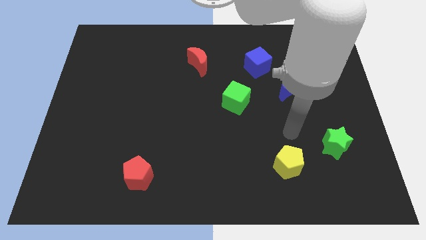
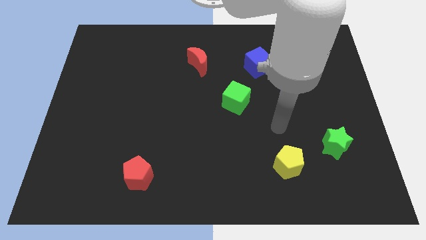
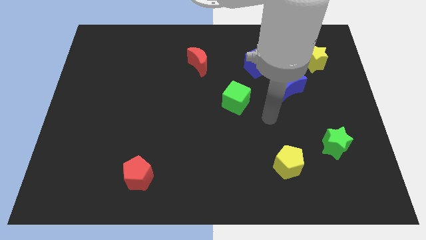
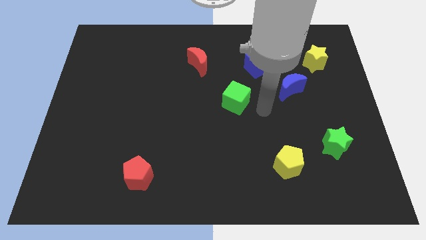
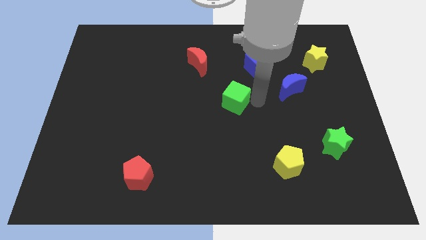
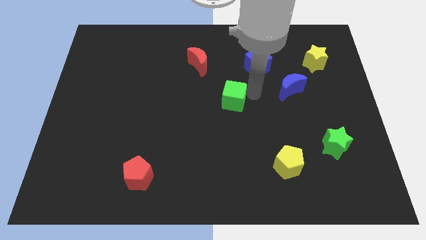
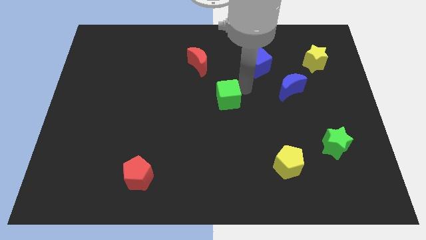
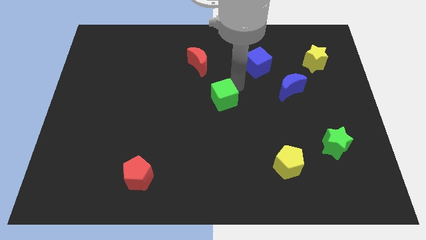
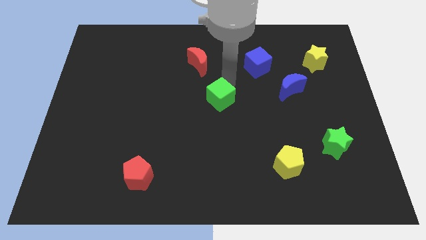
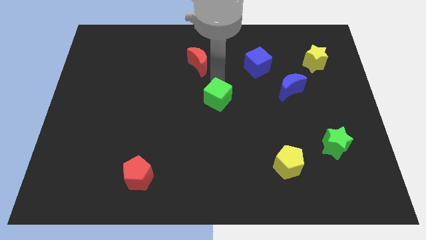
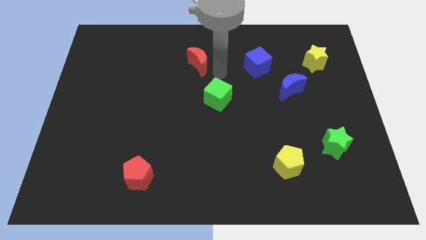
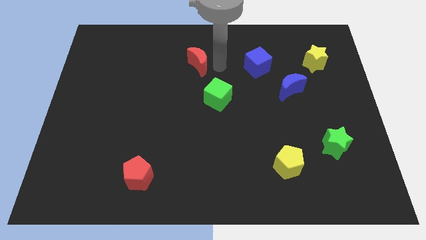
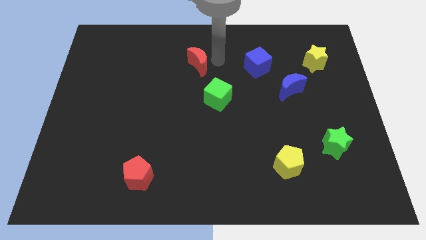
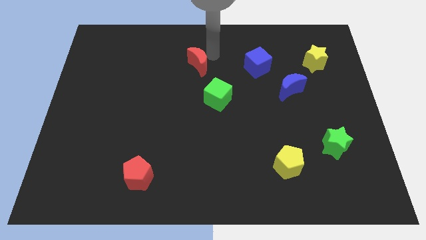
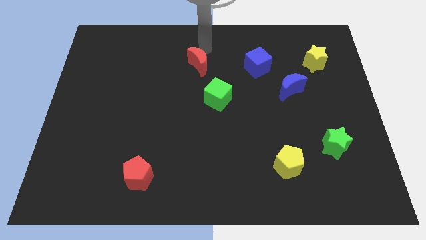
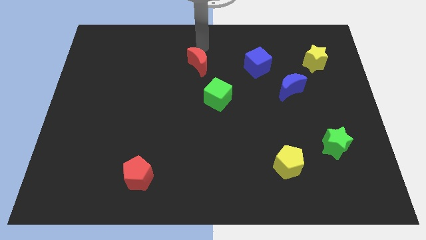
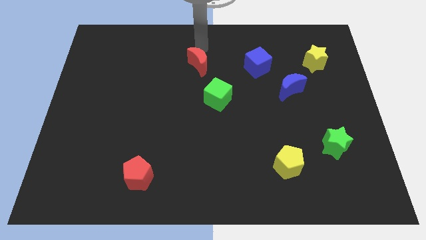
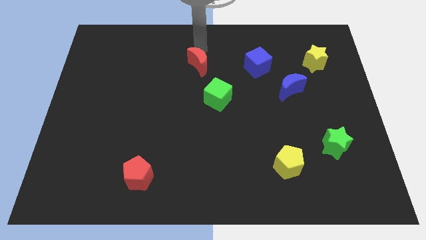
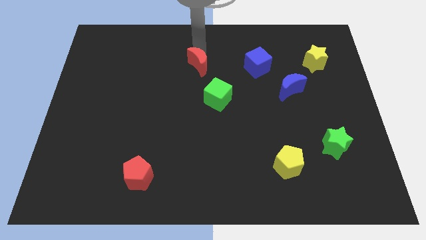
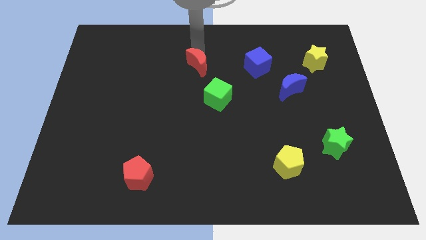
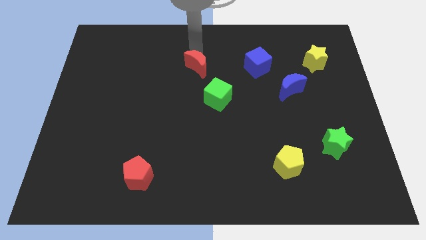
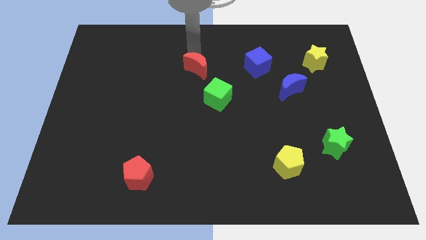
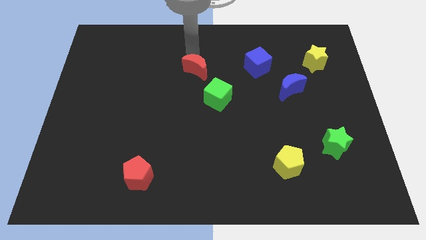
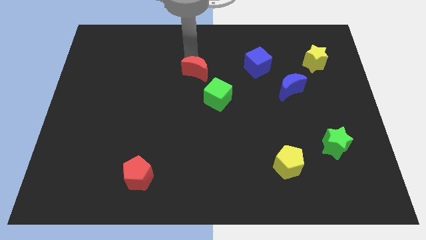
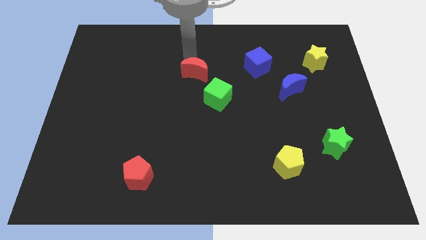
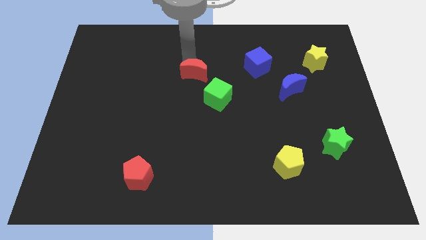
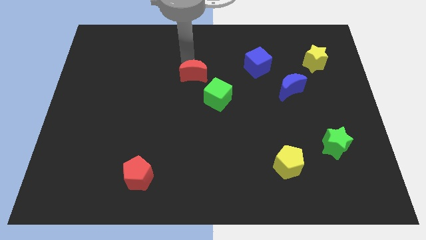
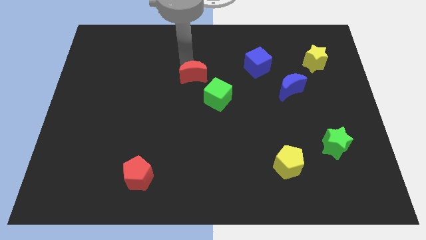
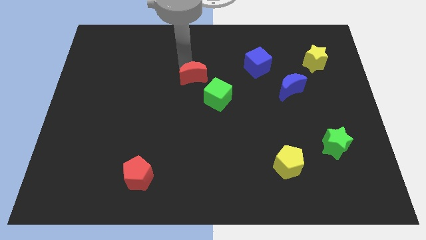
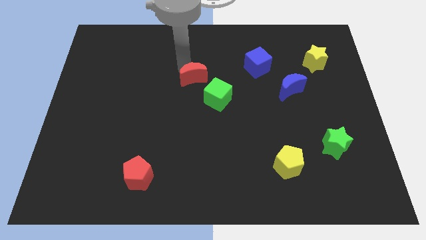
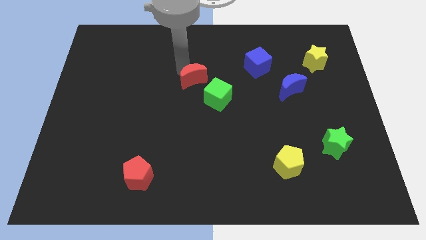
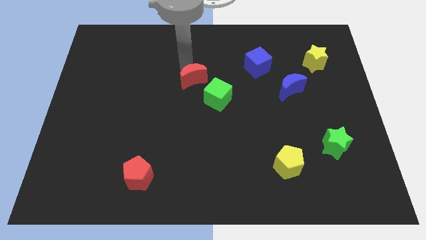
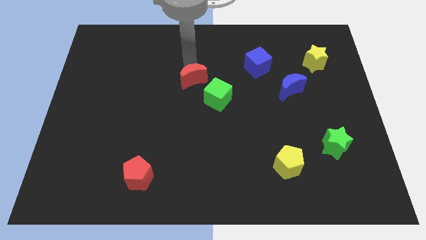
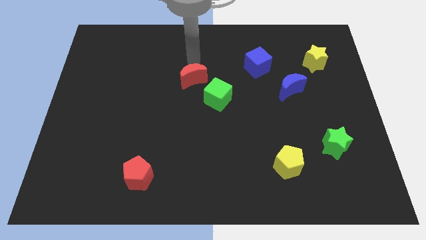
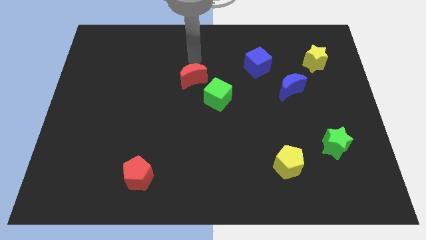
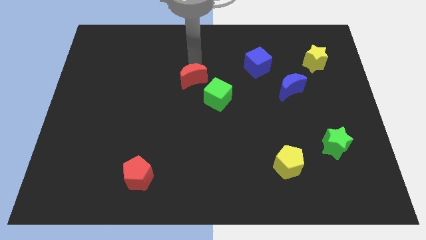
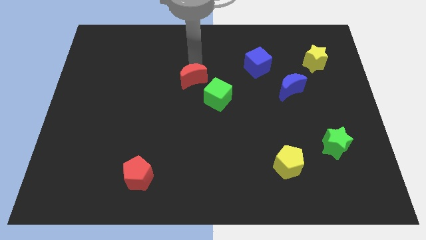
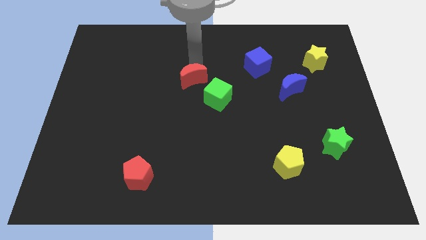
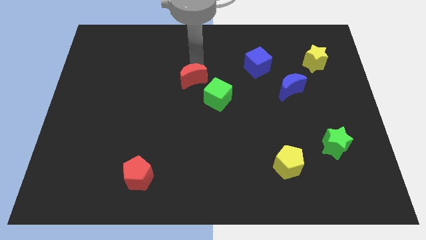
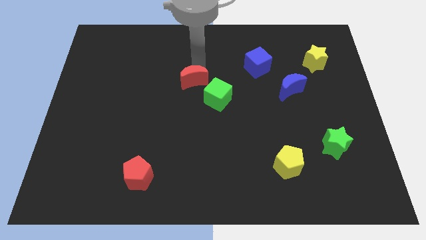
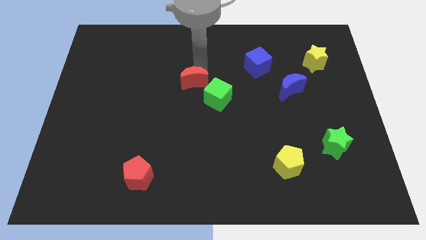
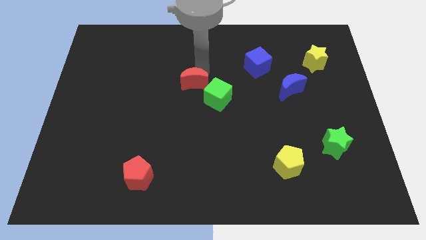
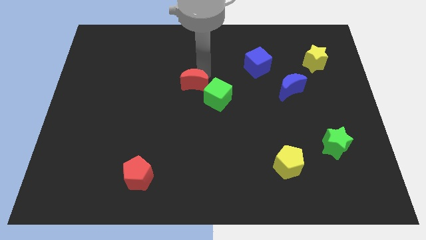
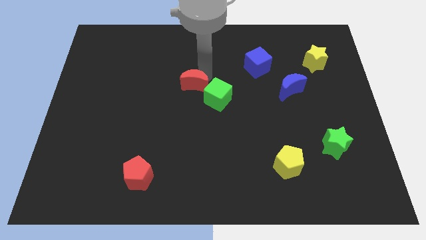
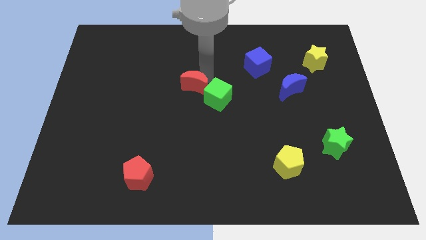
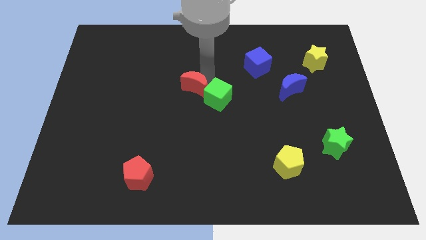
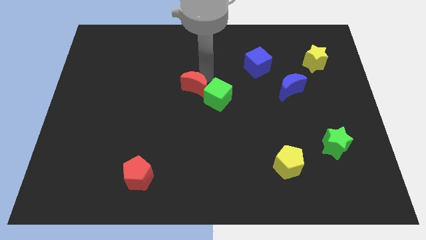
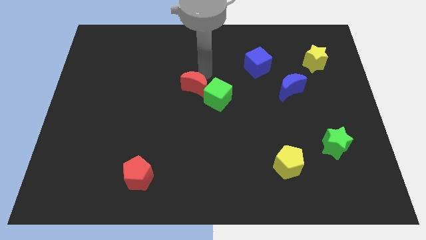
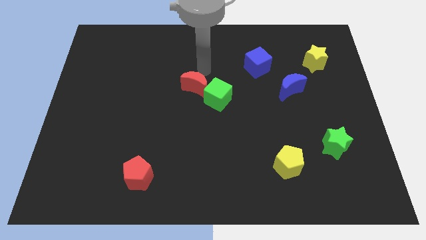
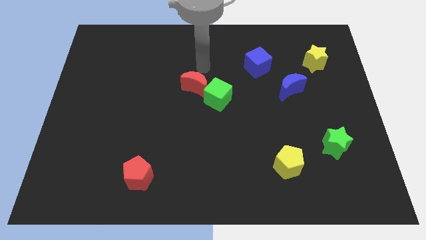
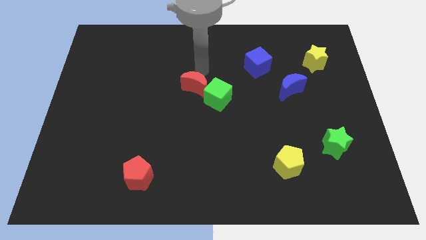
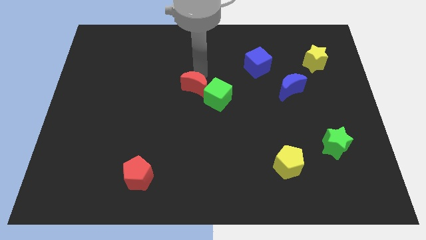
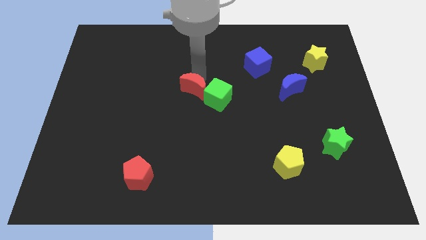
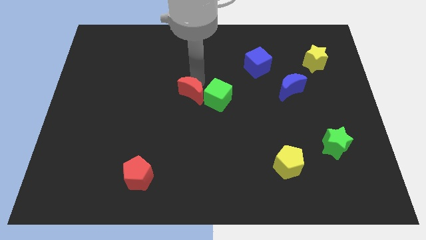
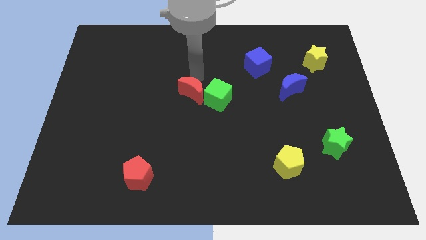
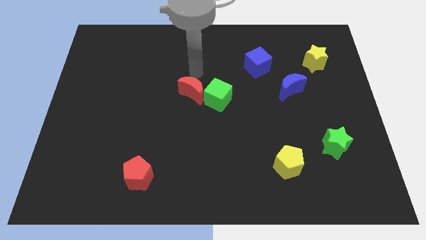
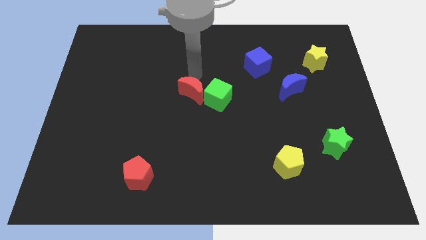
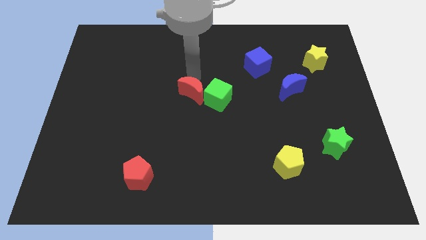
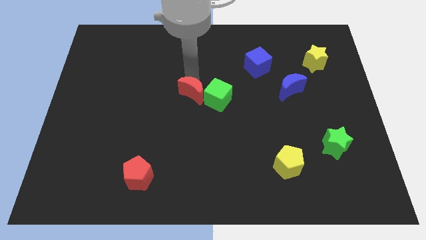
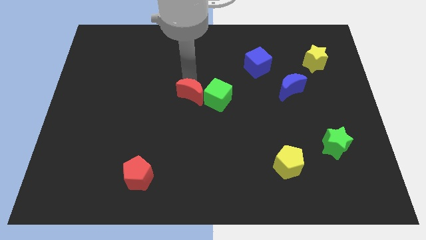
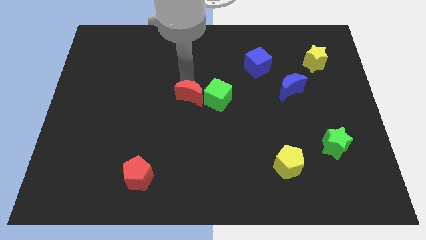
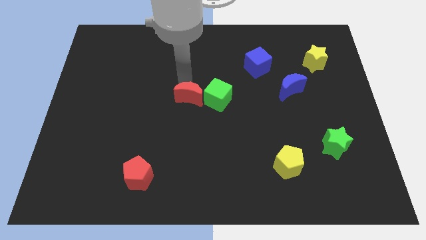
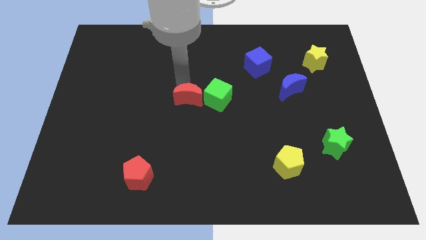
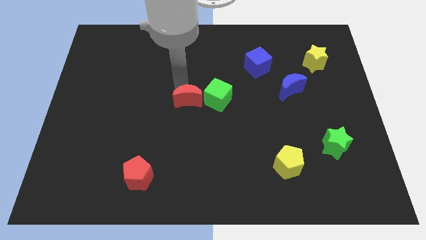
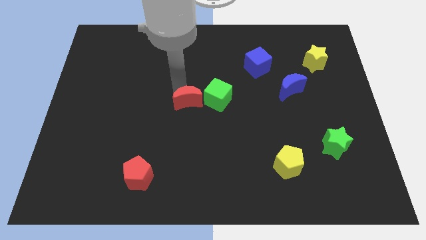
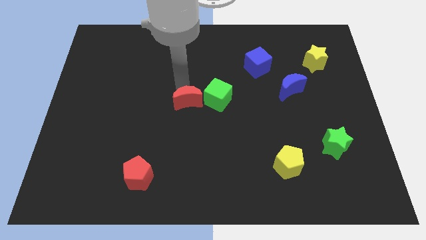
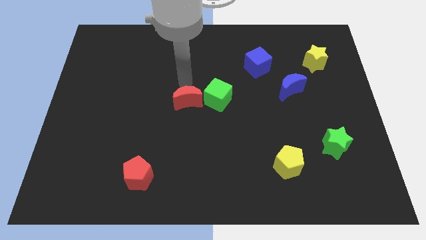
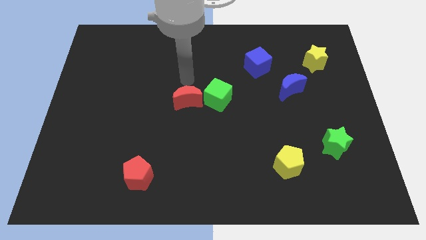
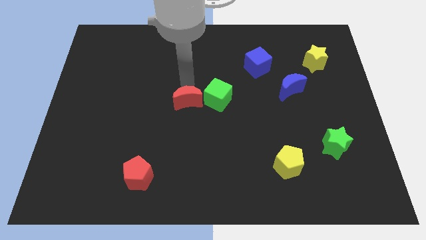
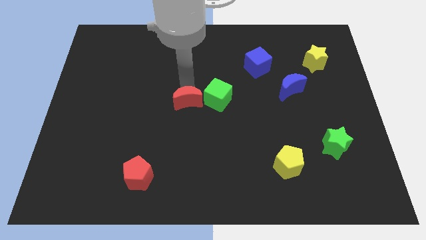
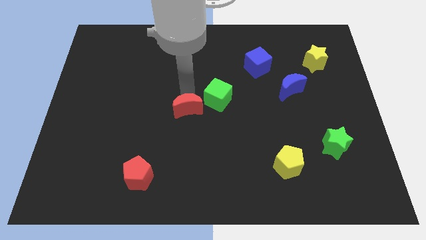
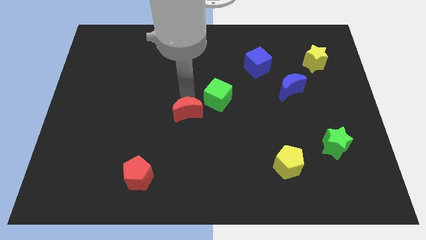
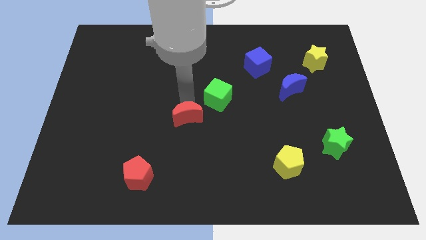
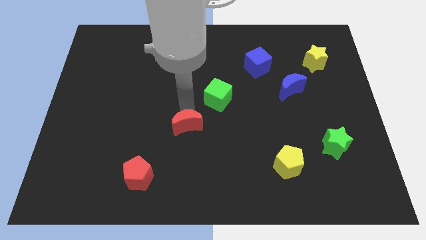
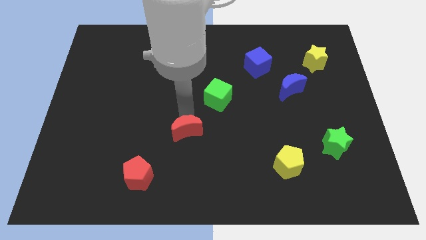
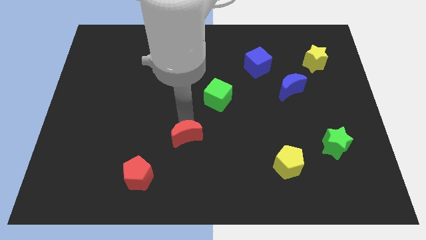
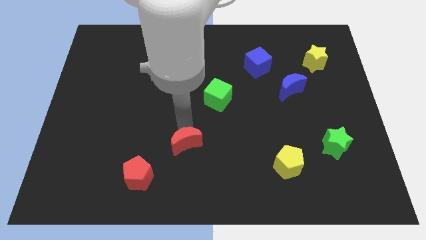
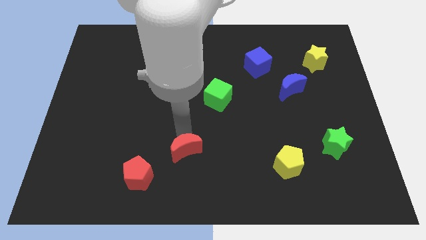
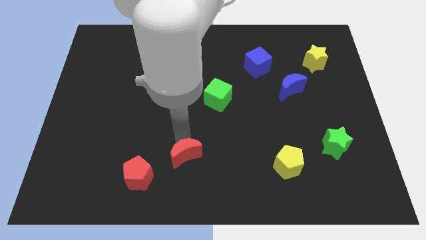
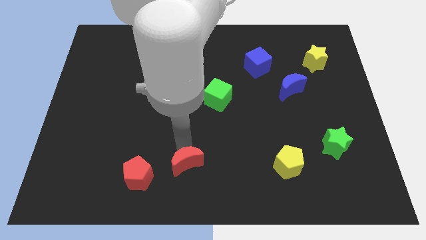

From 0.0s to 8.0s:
move the red moon to the right side of the red pentagon
